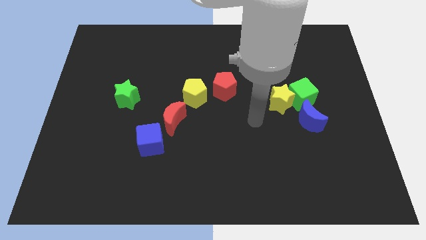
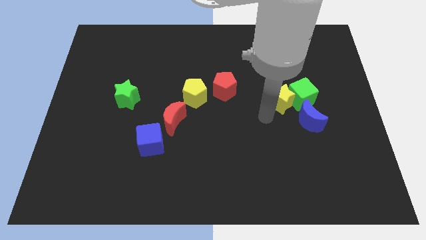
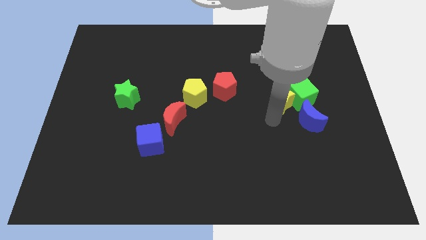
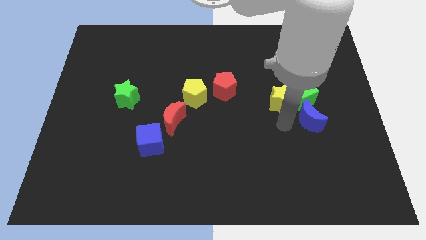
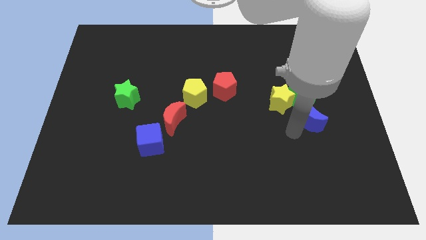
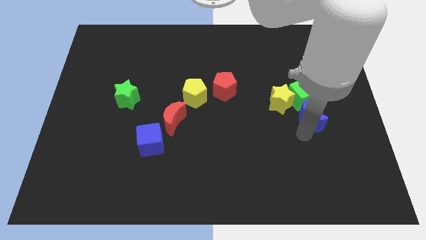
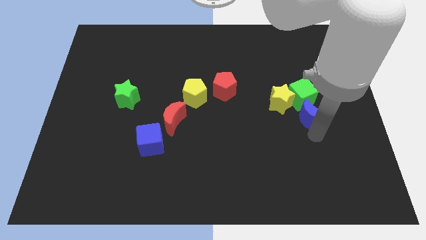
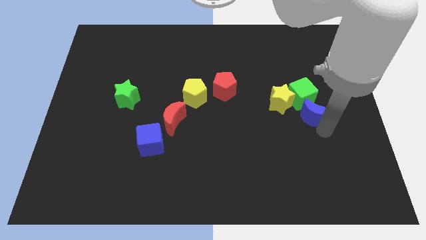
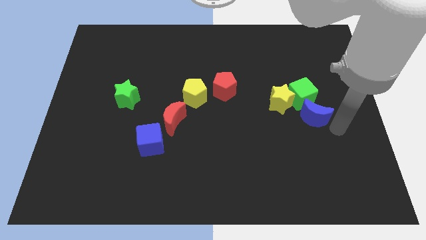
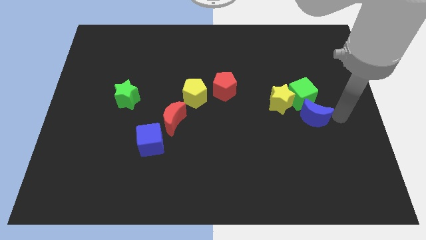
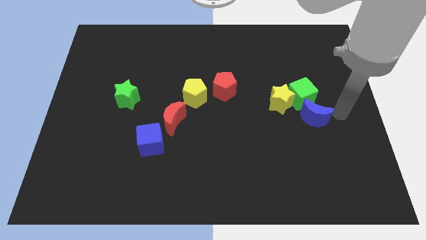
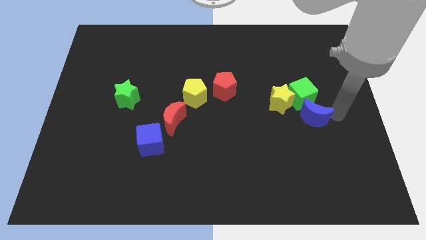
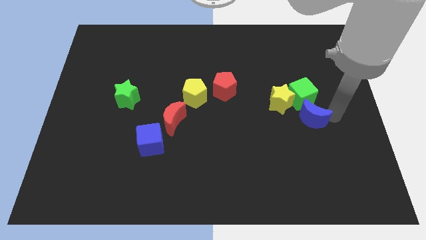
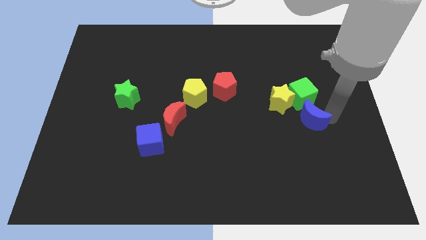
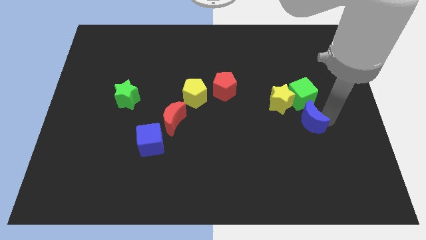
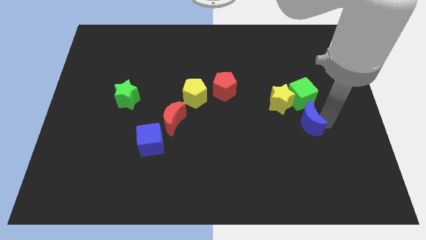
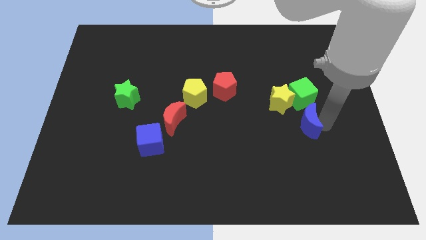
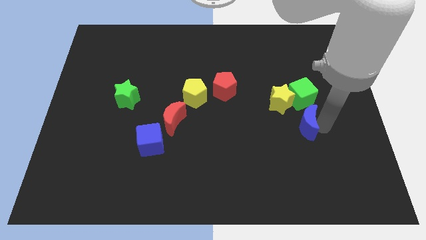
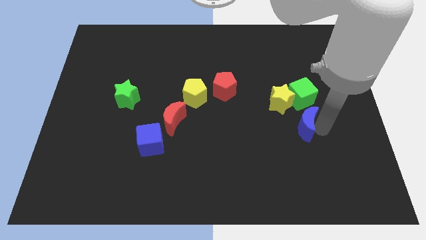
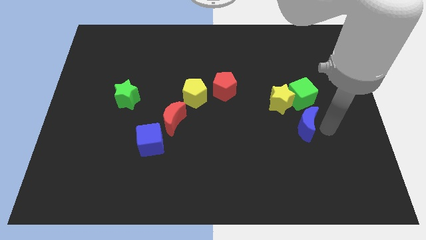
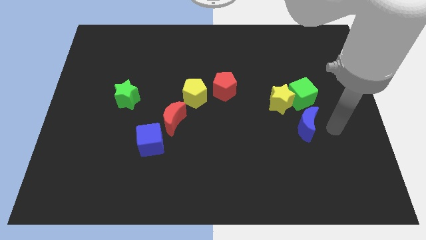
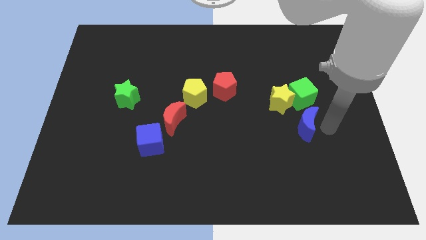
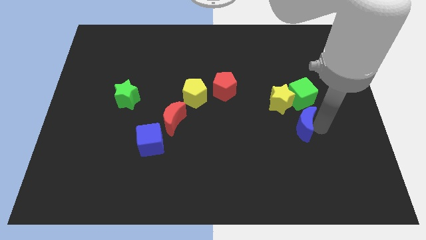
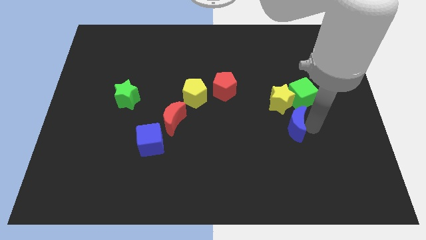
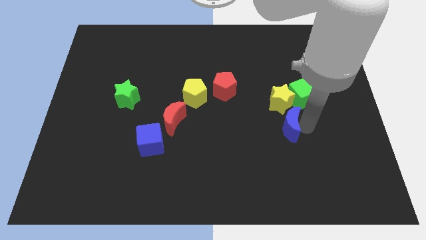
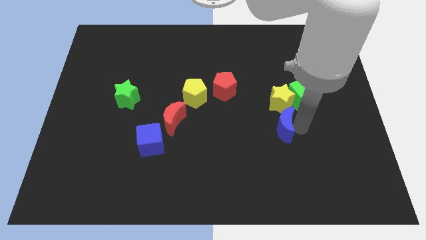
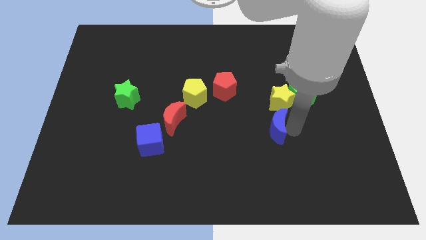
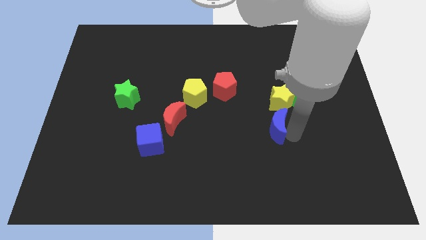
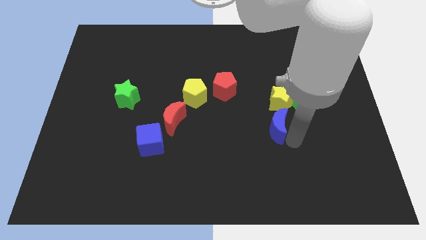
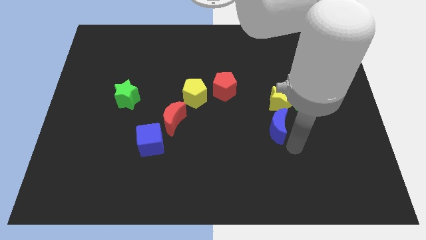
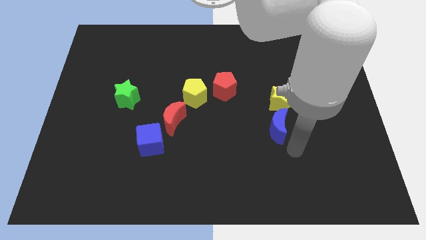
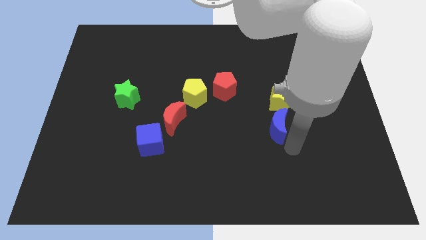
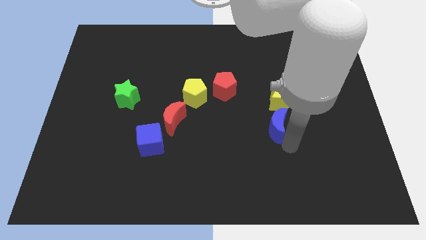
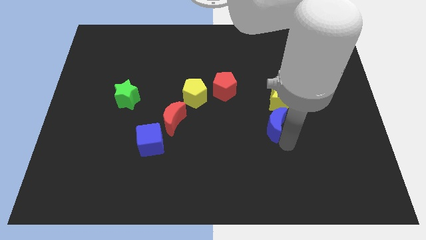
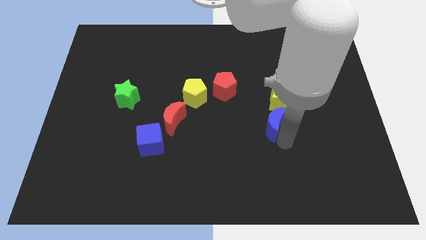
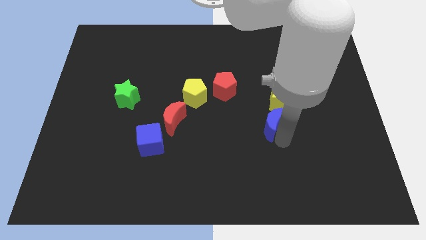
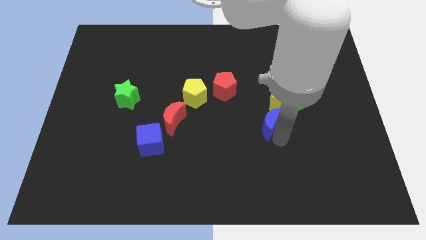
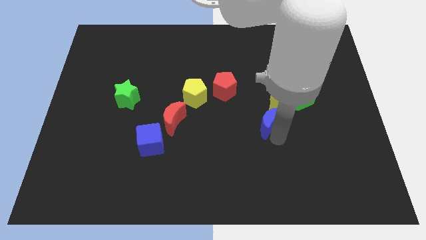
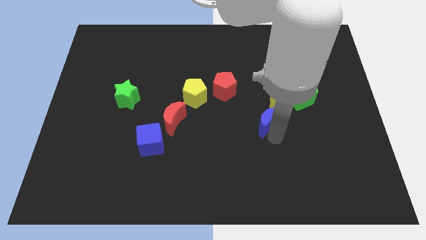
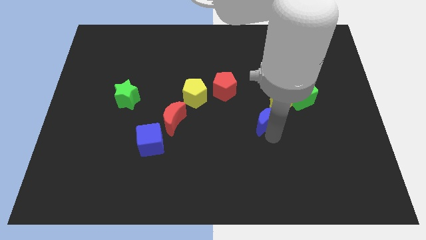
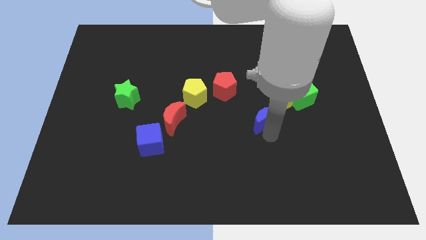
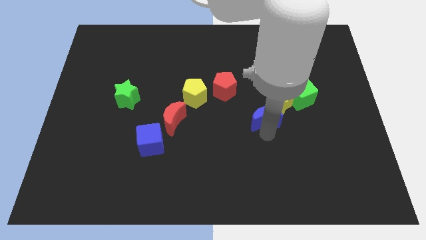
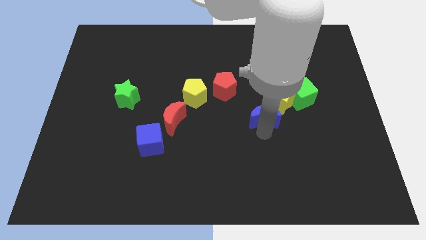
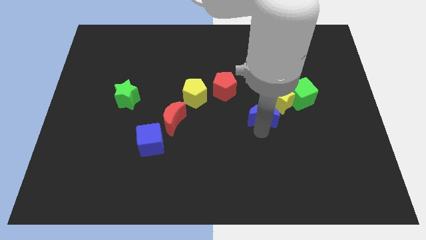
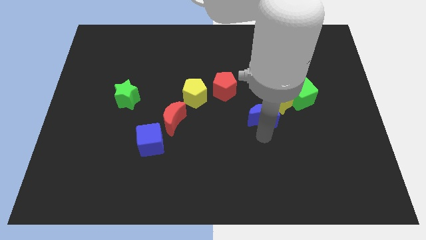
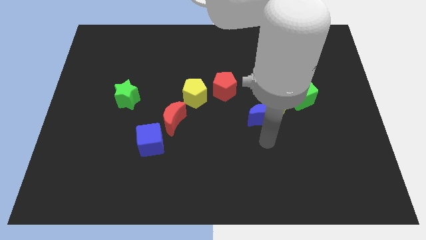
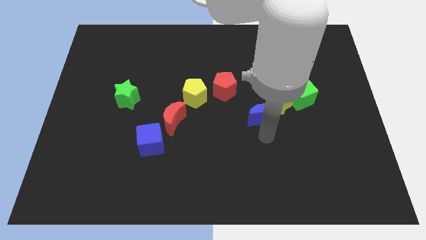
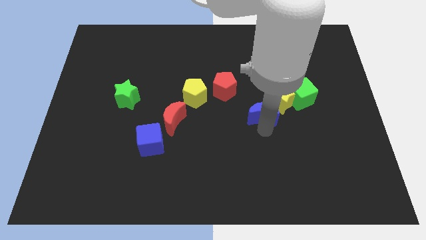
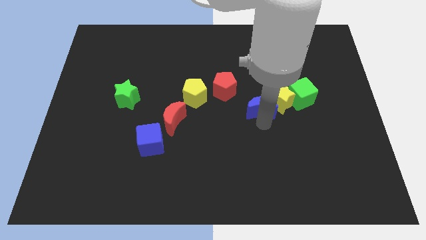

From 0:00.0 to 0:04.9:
push the blue moon upwards and to the left a little

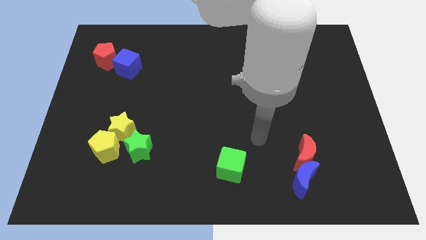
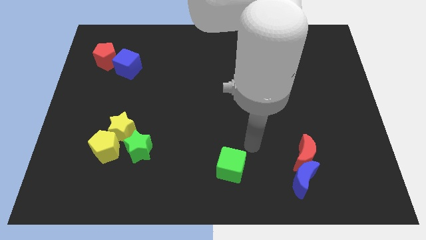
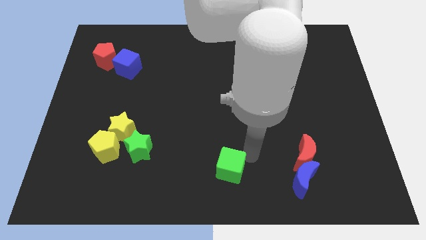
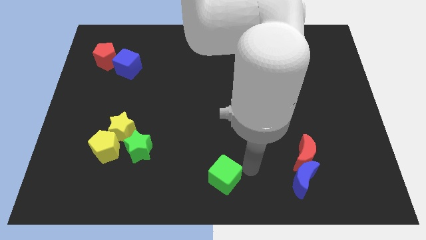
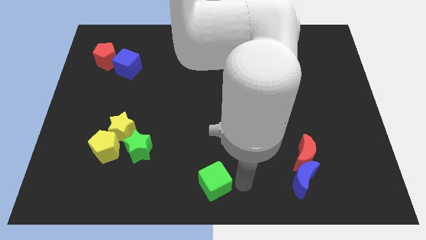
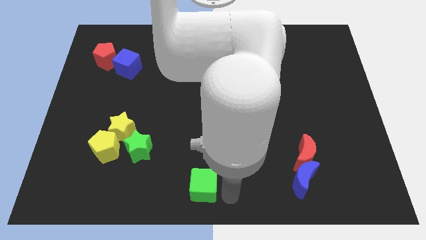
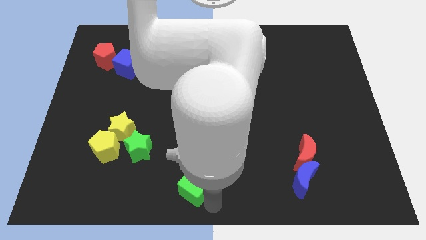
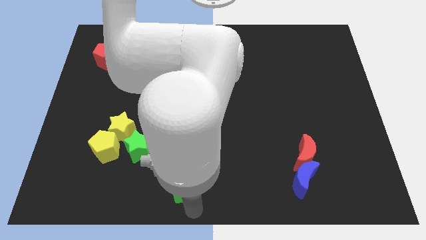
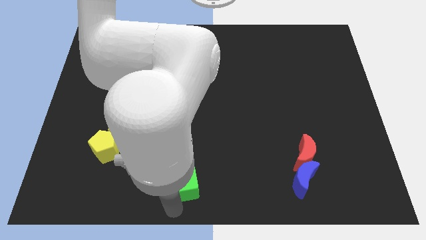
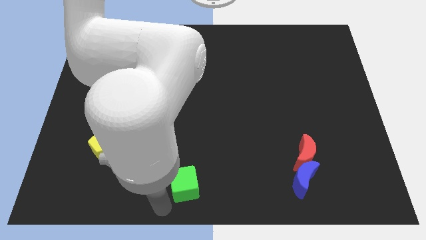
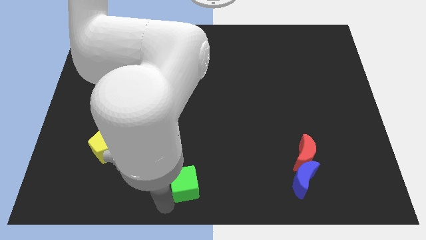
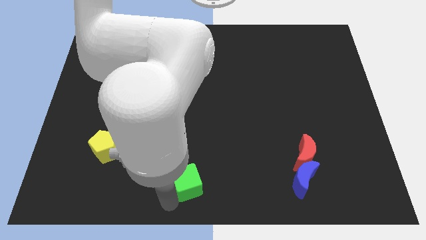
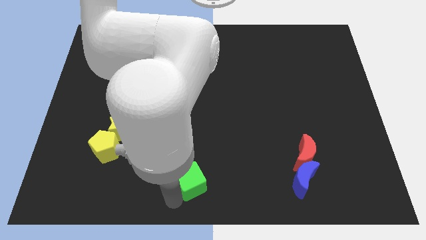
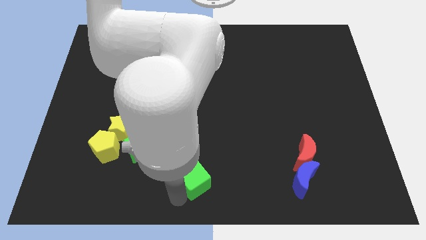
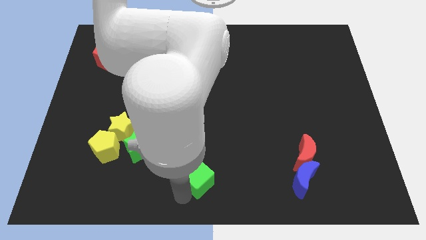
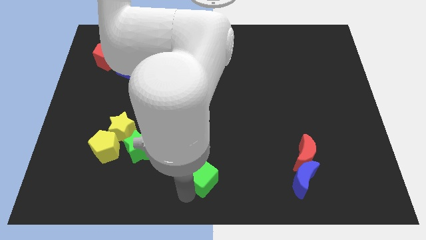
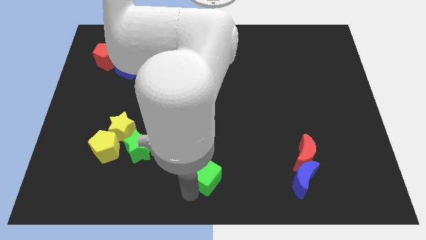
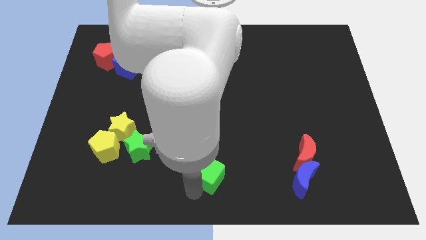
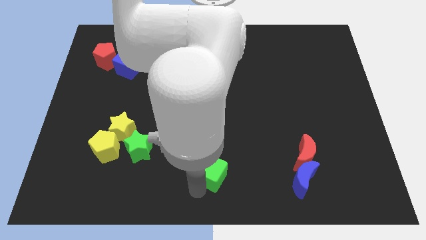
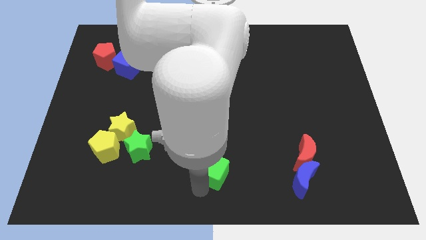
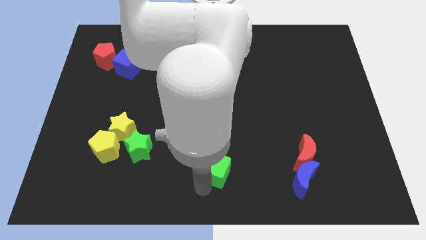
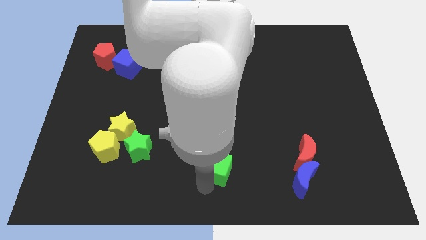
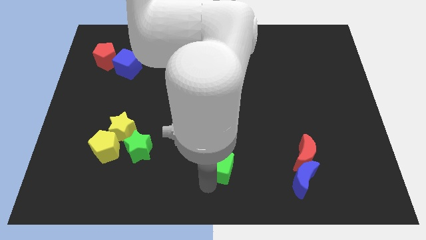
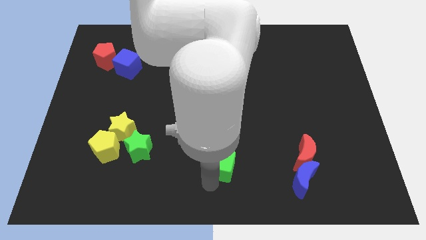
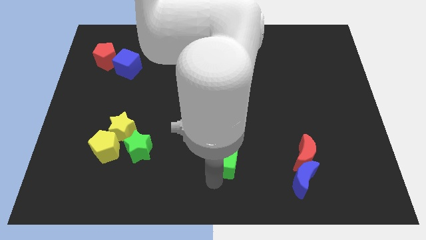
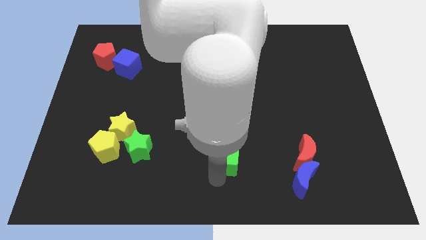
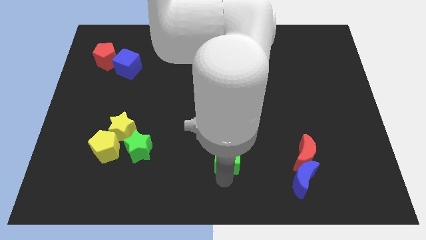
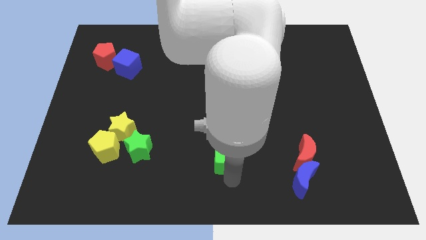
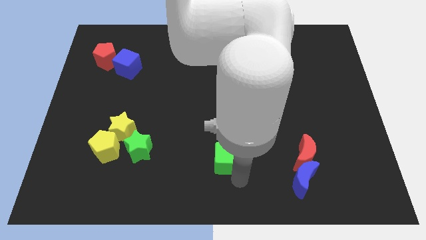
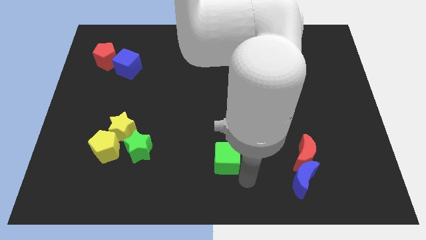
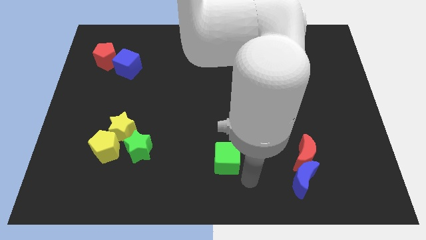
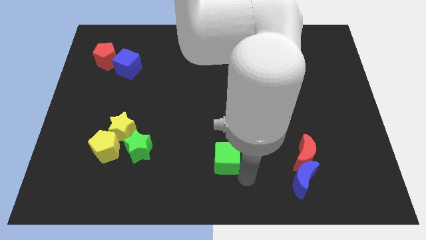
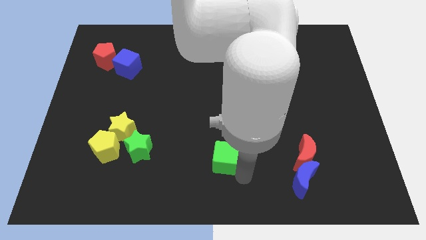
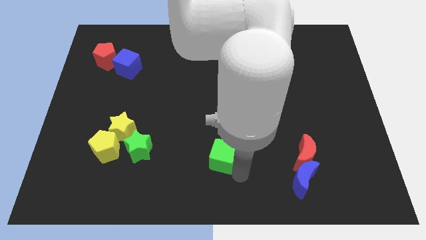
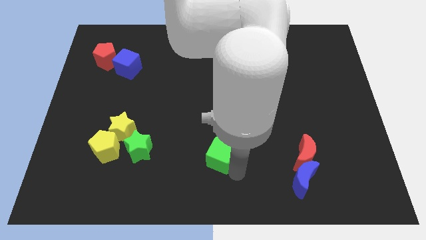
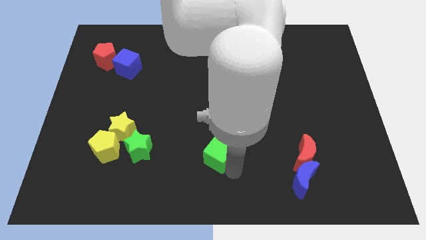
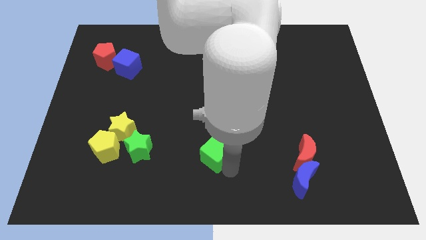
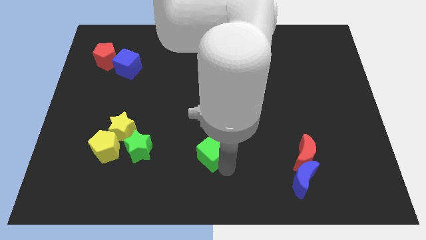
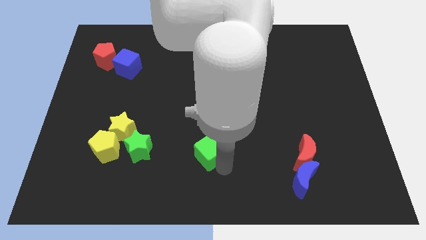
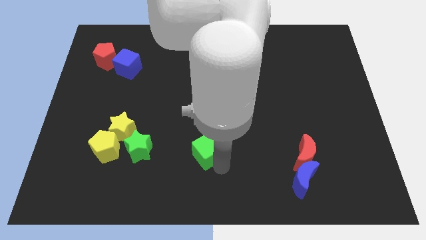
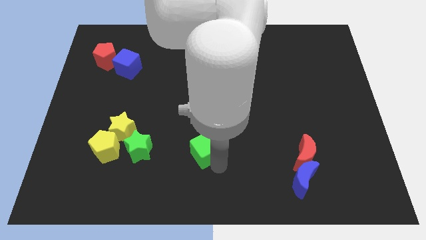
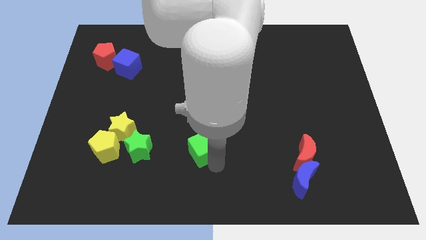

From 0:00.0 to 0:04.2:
move the green cube diagonally up and left somewhat
